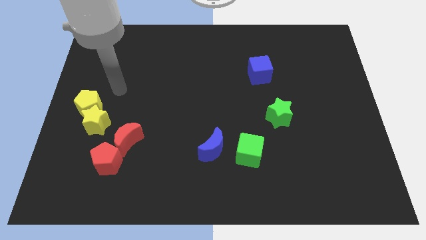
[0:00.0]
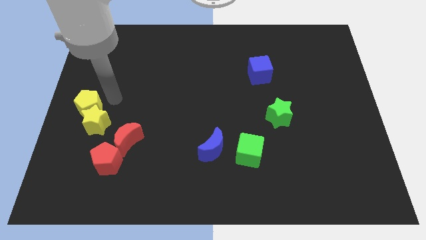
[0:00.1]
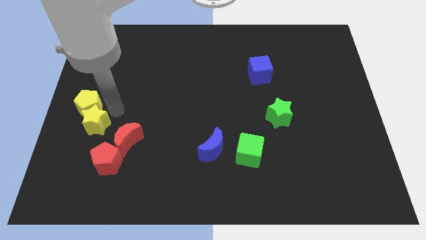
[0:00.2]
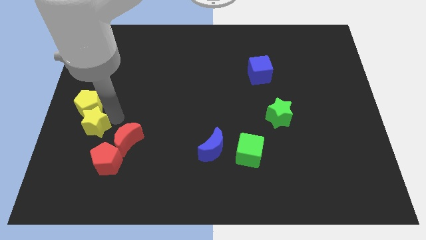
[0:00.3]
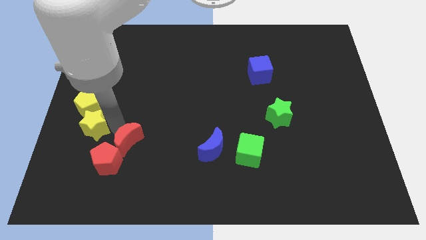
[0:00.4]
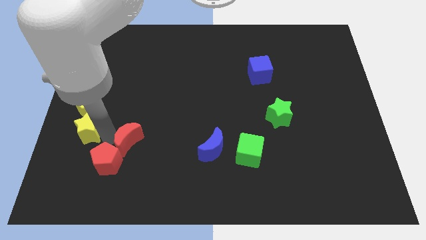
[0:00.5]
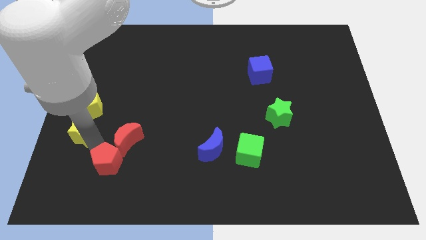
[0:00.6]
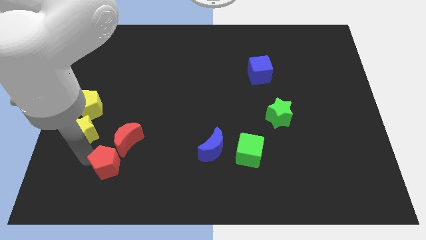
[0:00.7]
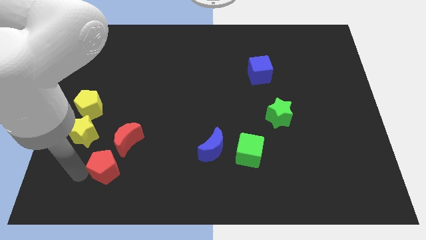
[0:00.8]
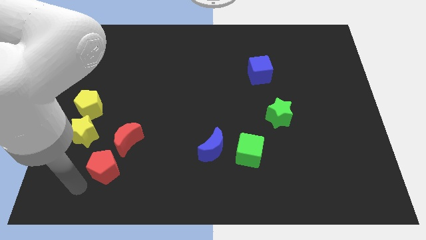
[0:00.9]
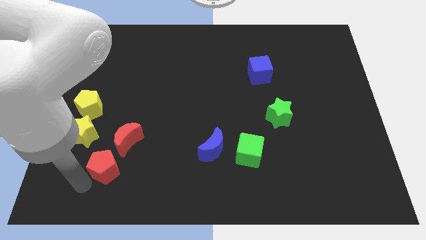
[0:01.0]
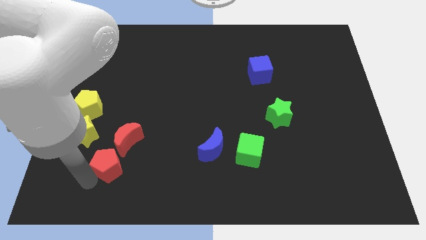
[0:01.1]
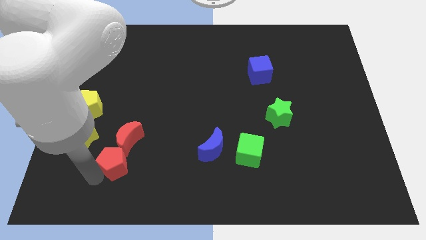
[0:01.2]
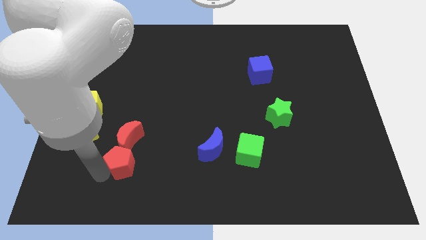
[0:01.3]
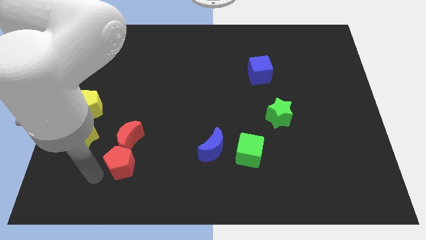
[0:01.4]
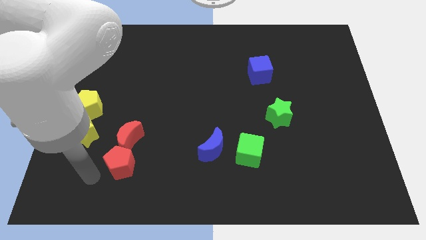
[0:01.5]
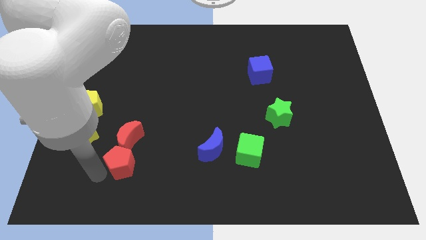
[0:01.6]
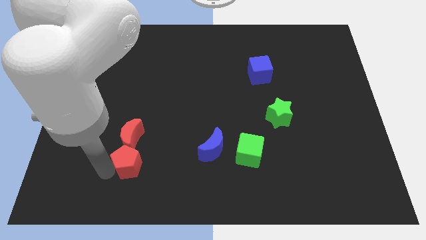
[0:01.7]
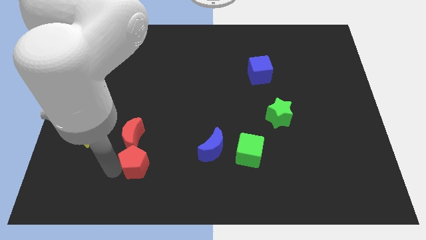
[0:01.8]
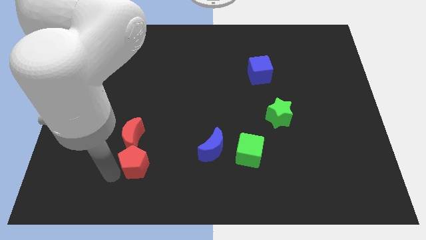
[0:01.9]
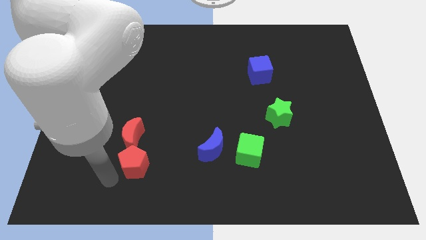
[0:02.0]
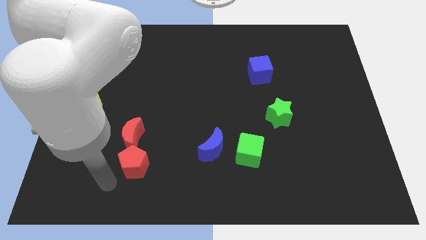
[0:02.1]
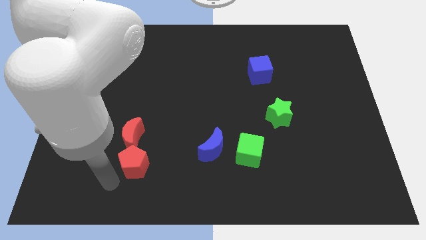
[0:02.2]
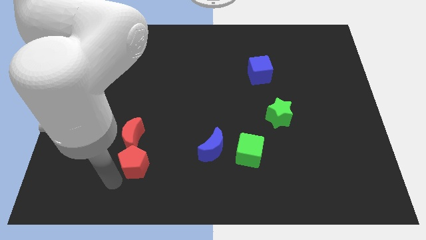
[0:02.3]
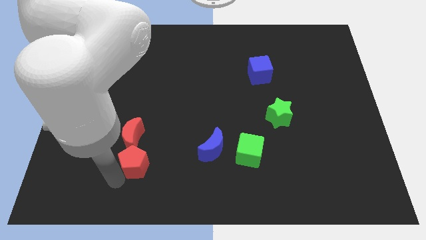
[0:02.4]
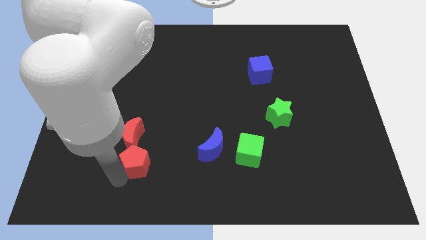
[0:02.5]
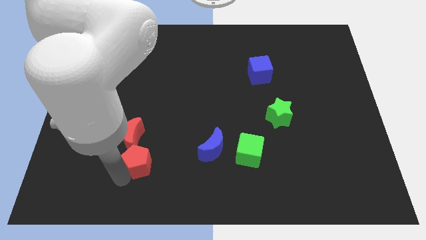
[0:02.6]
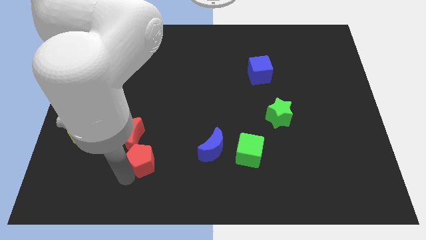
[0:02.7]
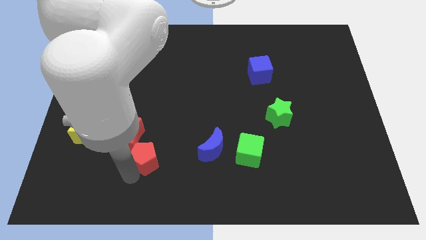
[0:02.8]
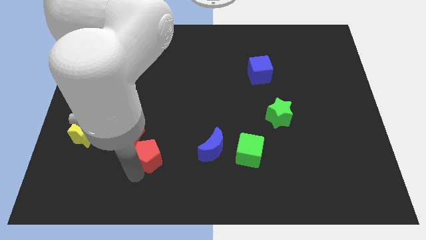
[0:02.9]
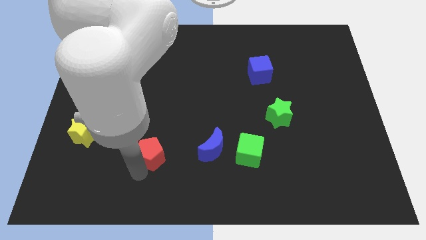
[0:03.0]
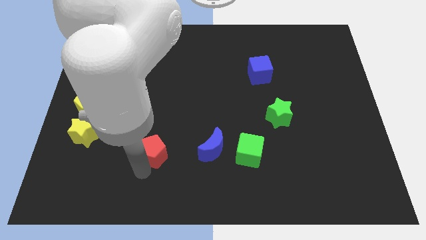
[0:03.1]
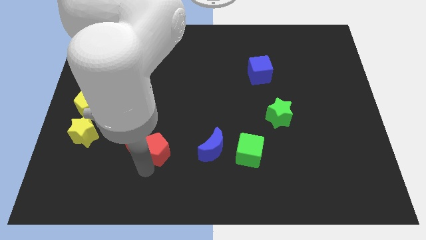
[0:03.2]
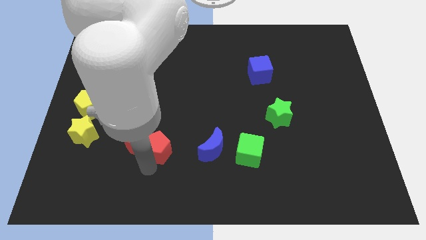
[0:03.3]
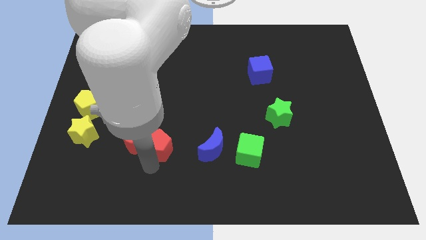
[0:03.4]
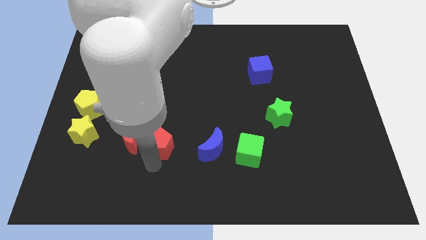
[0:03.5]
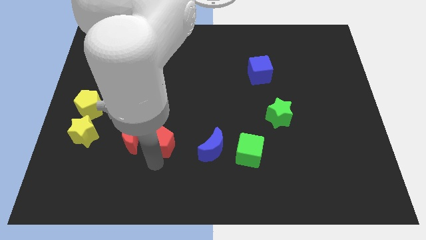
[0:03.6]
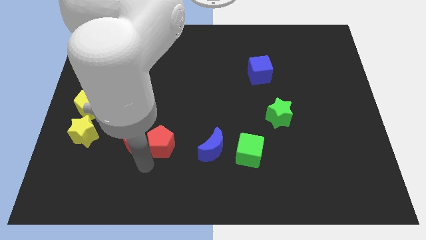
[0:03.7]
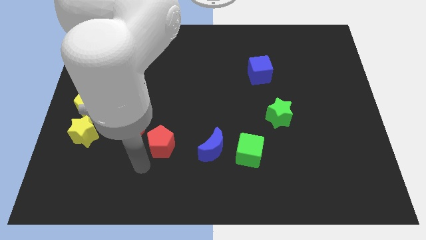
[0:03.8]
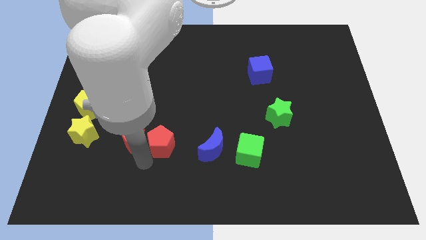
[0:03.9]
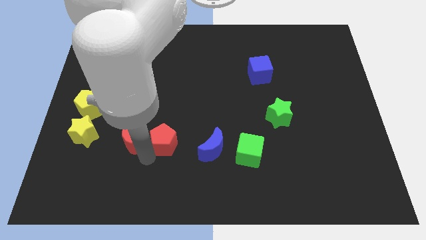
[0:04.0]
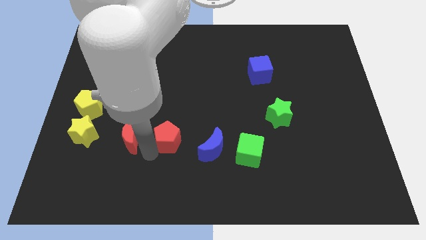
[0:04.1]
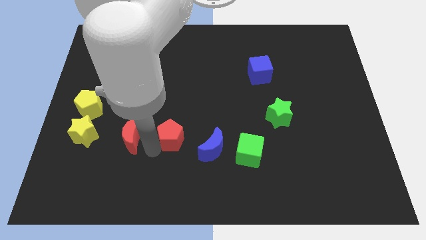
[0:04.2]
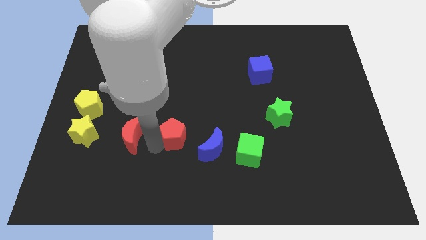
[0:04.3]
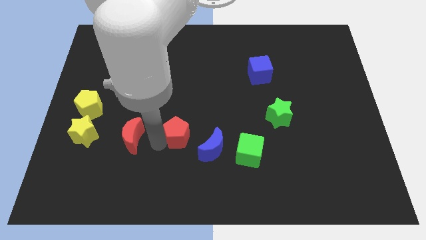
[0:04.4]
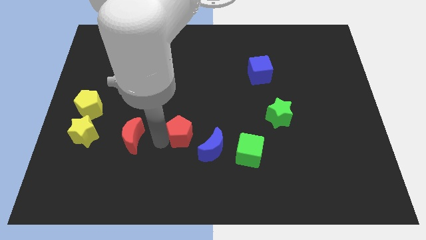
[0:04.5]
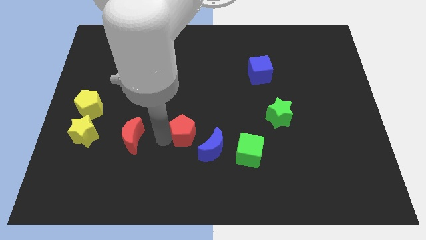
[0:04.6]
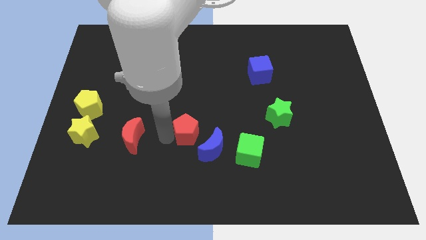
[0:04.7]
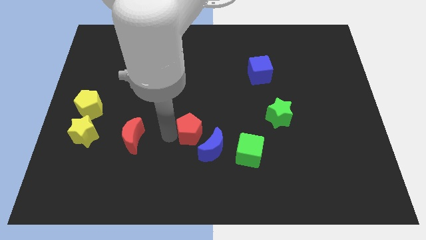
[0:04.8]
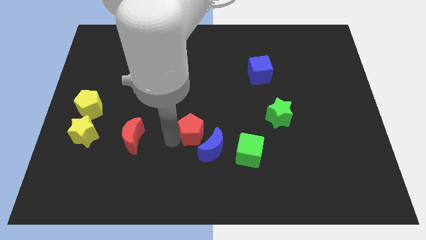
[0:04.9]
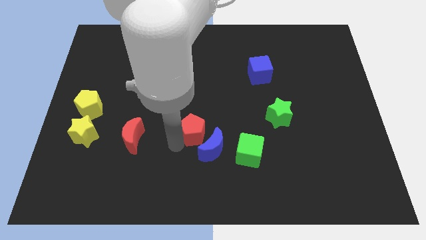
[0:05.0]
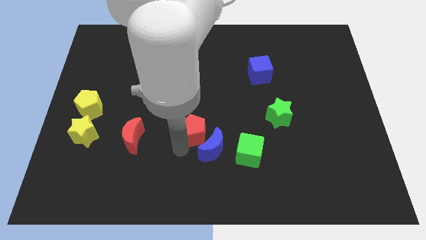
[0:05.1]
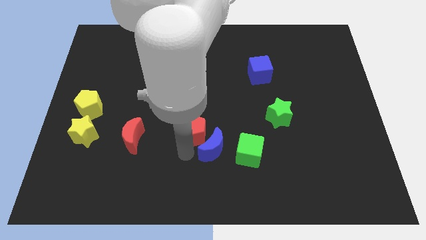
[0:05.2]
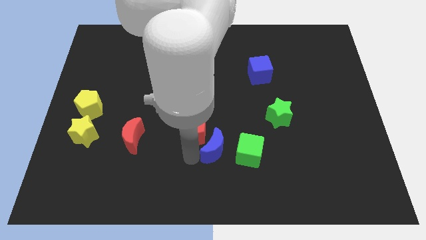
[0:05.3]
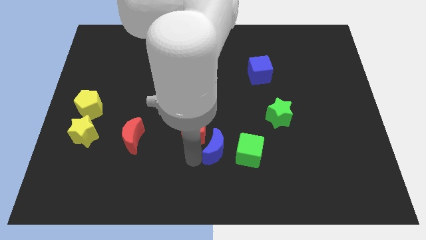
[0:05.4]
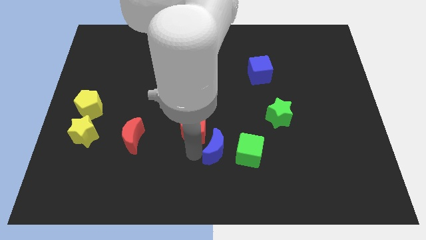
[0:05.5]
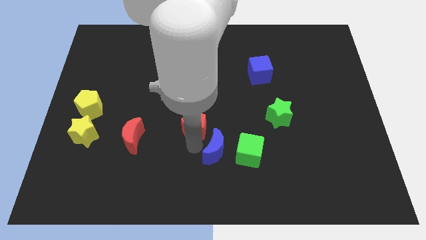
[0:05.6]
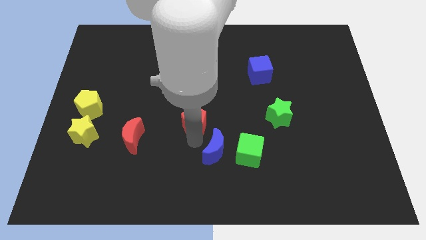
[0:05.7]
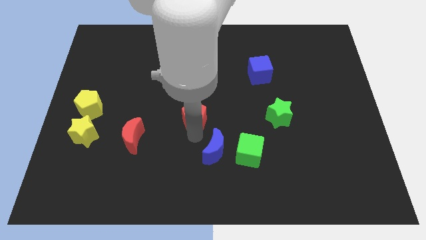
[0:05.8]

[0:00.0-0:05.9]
slide the red pentagon up and right diagonally

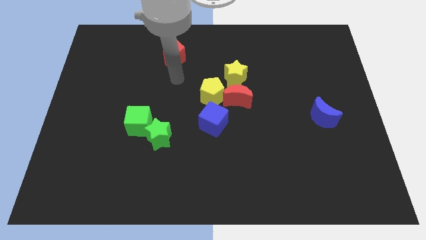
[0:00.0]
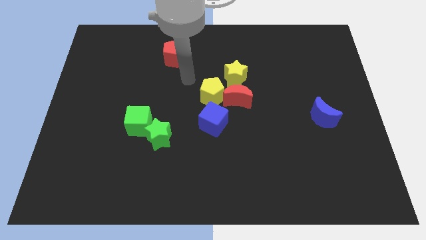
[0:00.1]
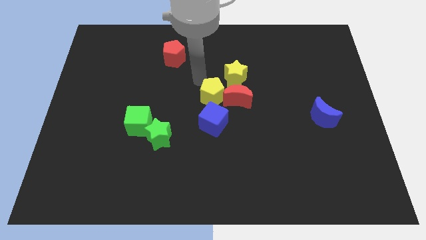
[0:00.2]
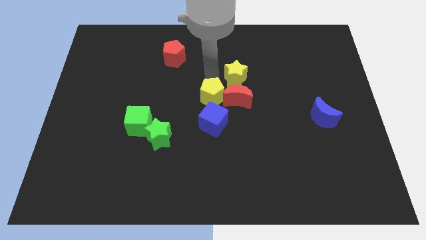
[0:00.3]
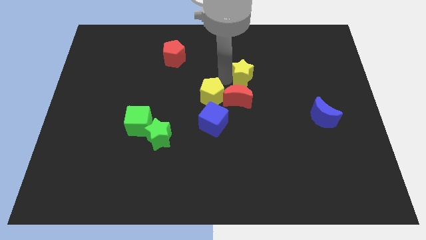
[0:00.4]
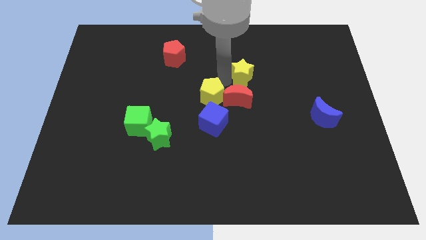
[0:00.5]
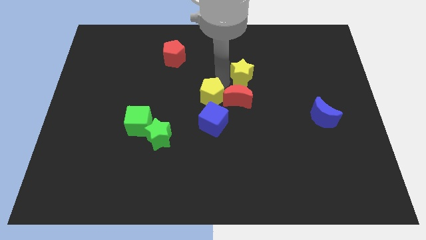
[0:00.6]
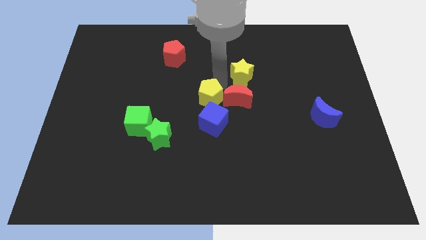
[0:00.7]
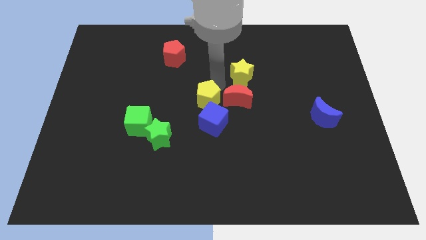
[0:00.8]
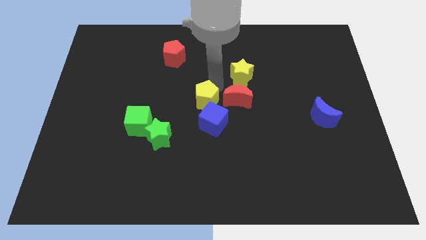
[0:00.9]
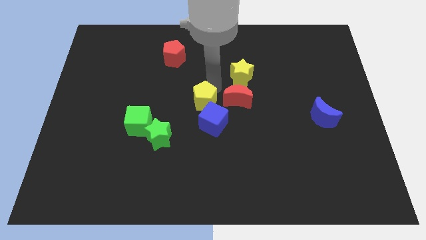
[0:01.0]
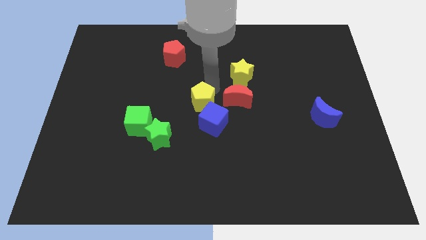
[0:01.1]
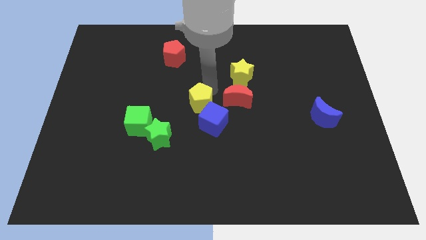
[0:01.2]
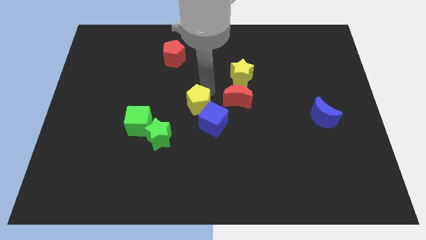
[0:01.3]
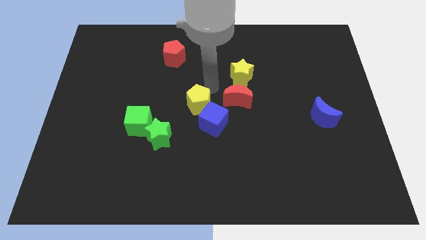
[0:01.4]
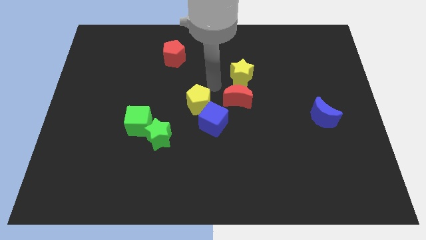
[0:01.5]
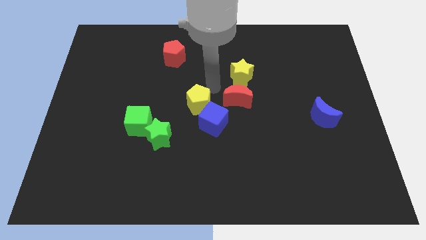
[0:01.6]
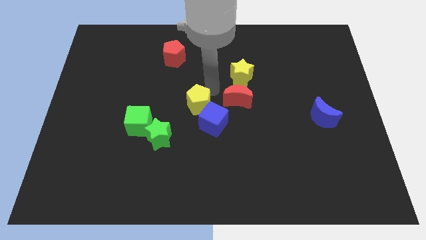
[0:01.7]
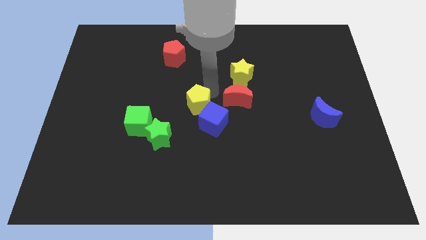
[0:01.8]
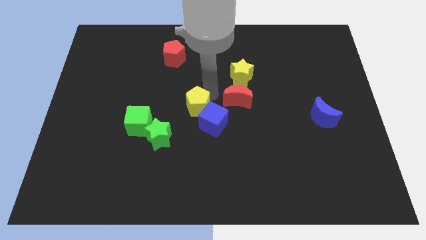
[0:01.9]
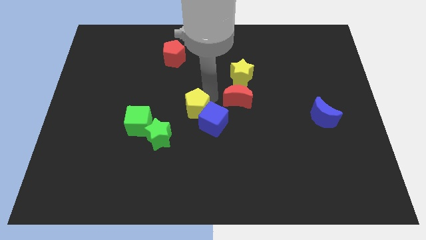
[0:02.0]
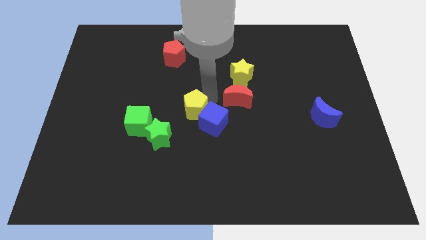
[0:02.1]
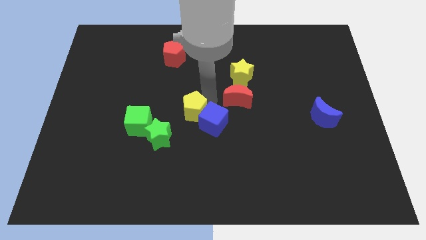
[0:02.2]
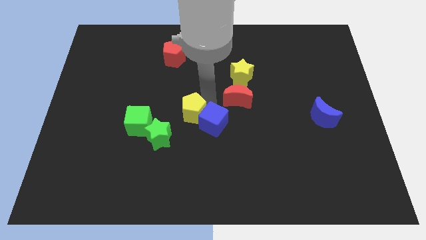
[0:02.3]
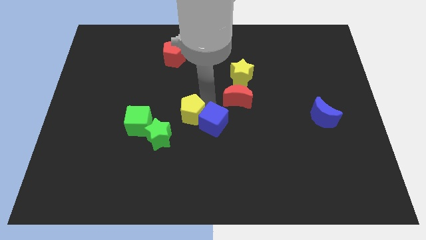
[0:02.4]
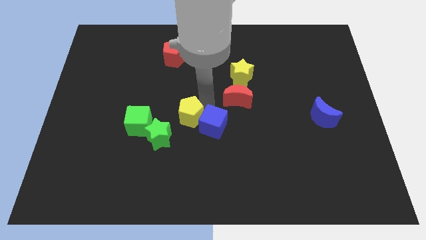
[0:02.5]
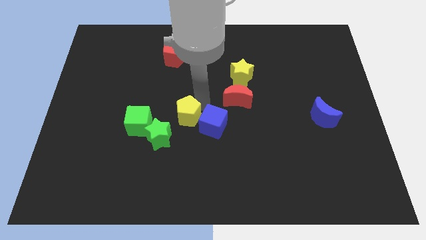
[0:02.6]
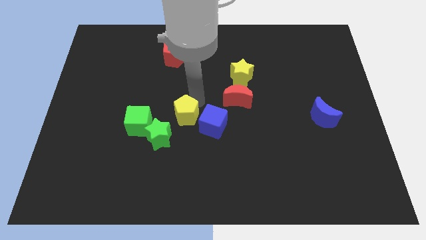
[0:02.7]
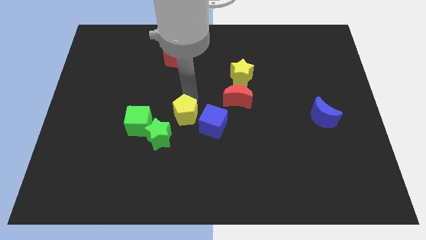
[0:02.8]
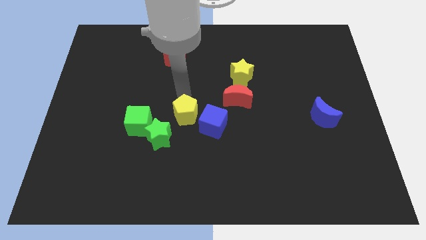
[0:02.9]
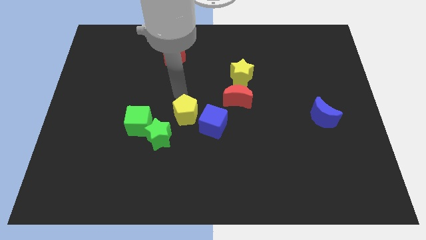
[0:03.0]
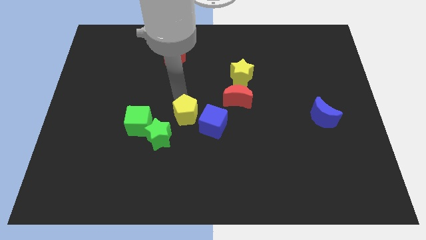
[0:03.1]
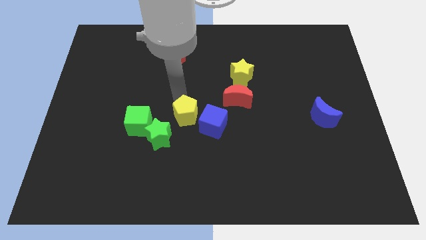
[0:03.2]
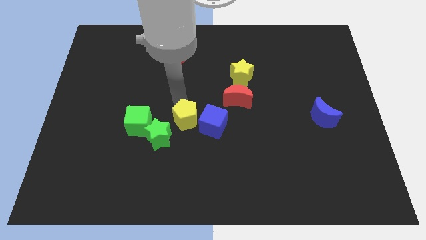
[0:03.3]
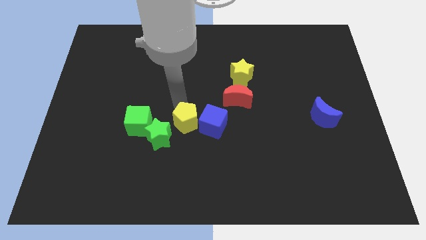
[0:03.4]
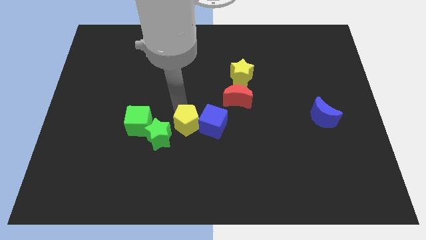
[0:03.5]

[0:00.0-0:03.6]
slightly move the yellow pentagon down
